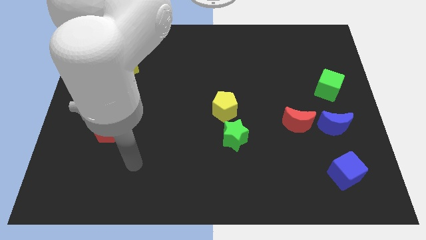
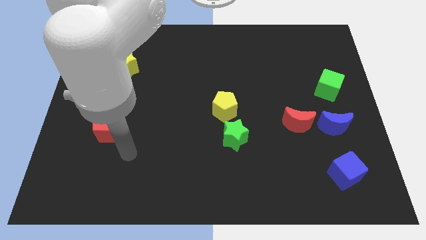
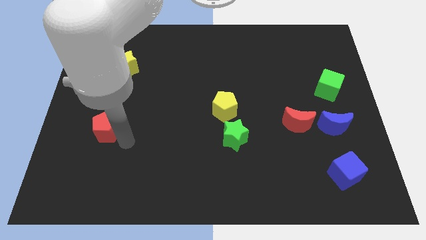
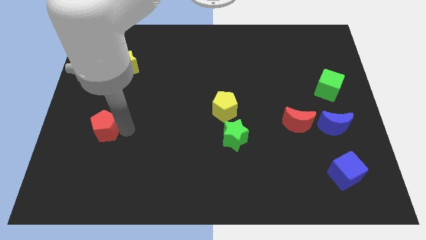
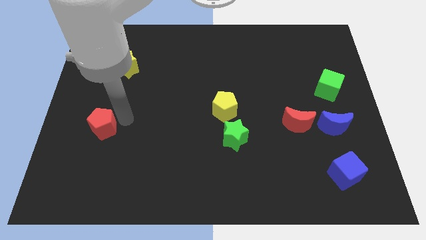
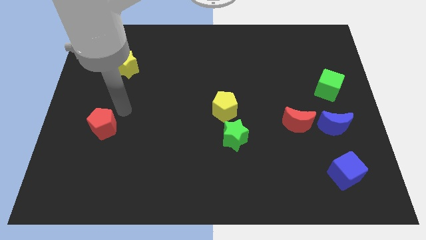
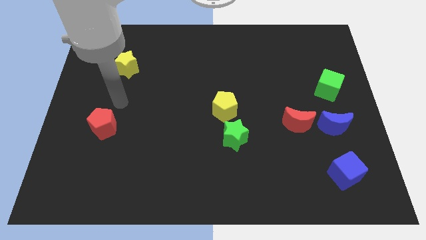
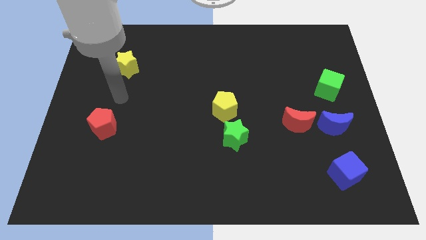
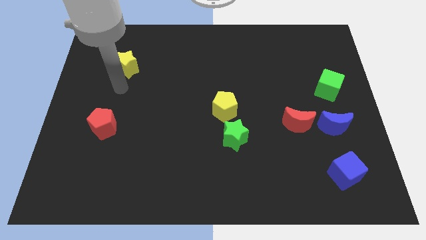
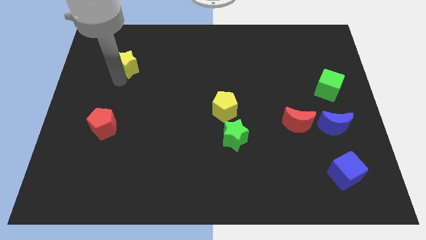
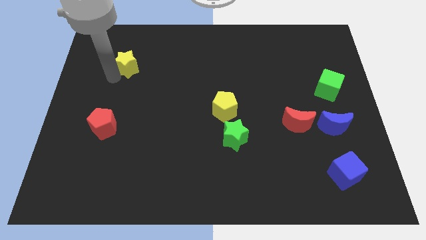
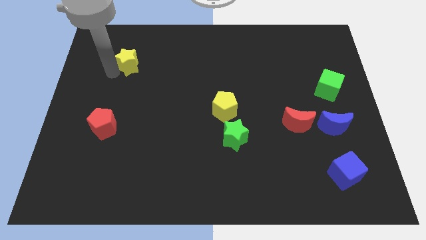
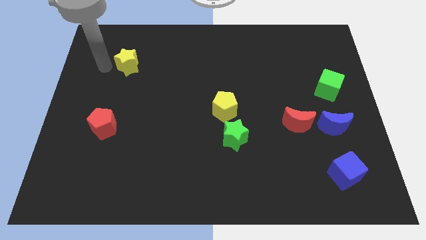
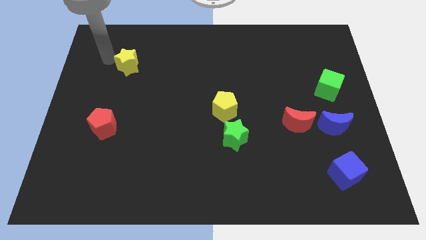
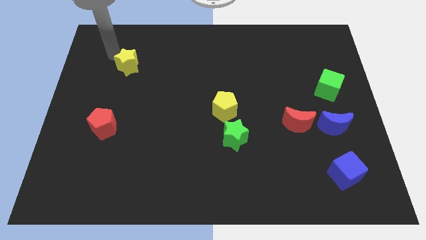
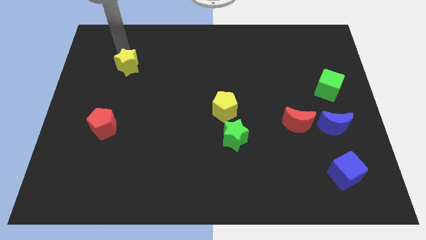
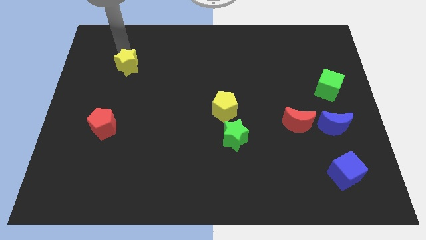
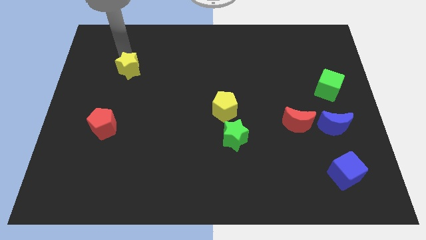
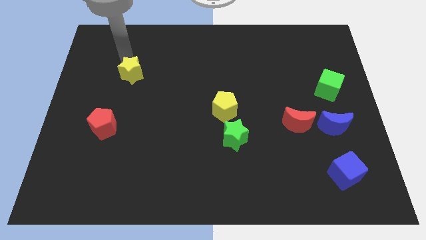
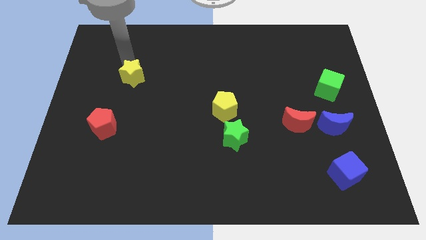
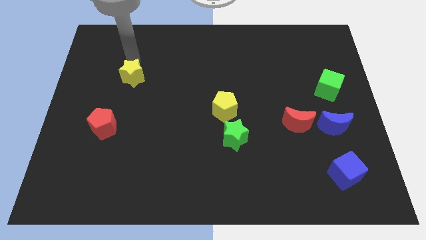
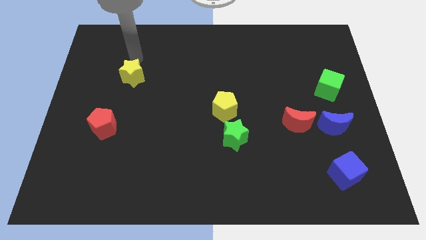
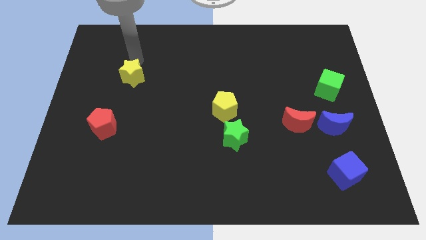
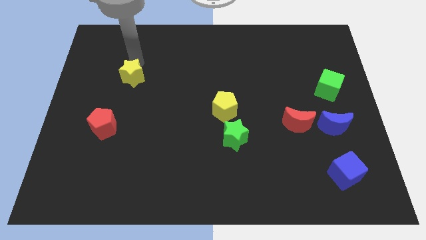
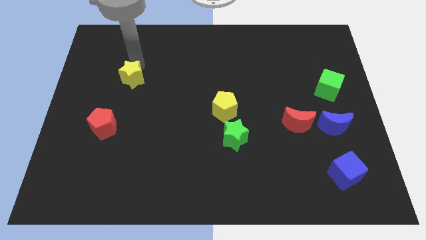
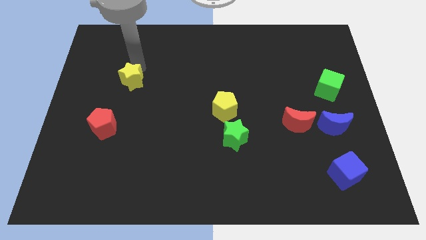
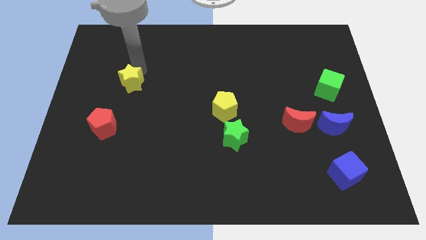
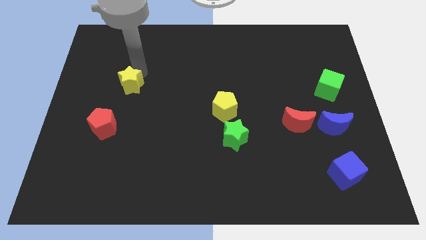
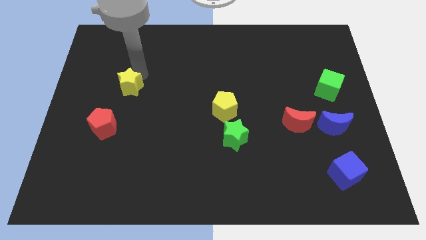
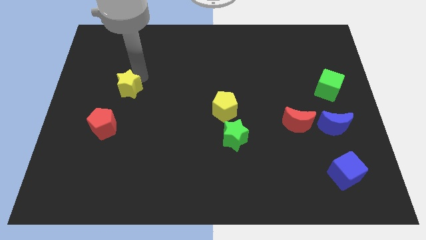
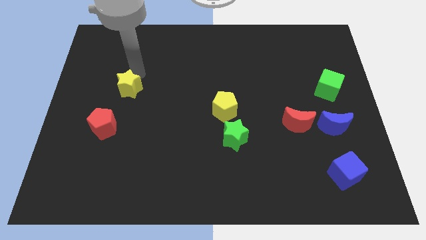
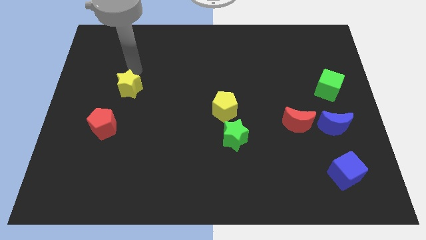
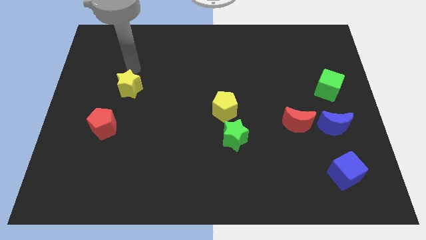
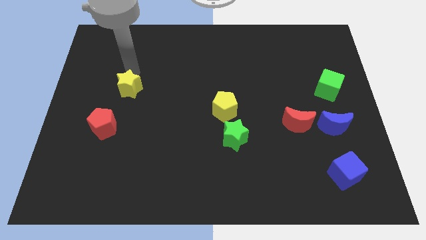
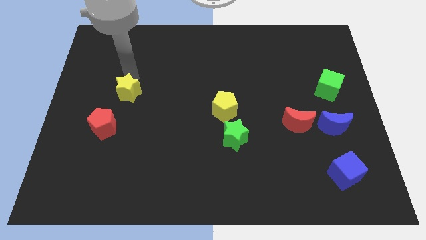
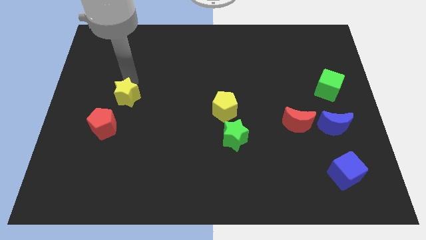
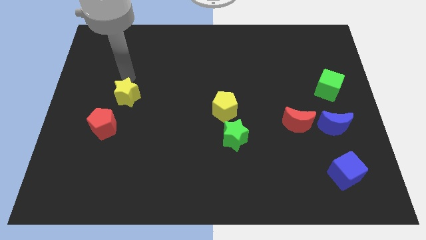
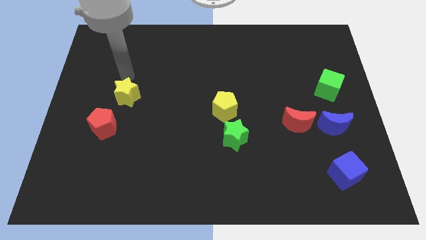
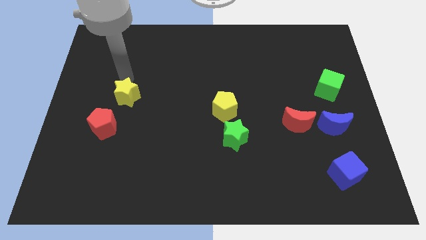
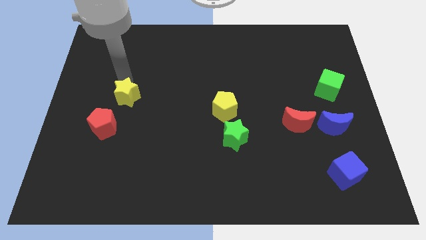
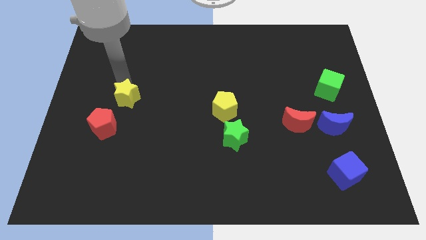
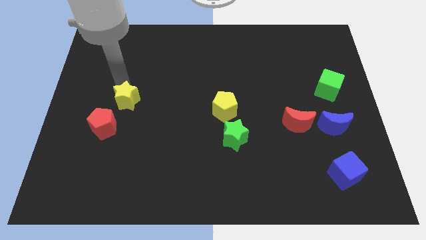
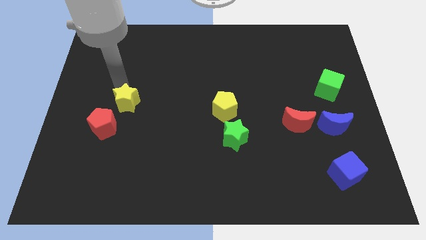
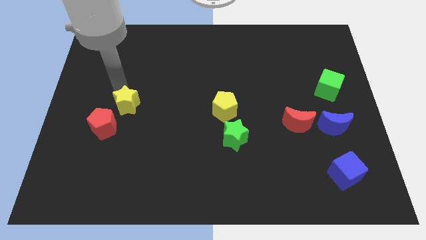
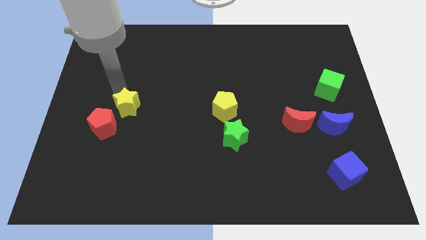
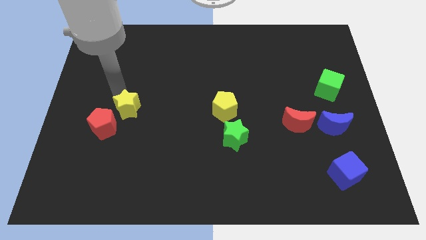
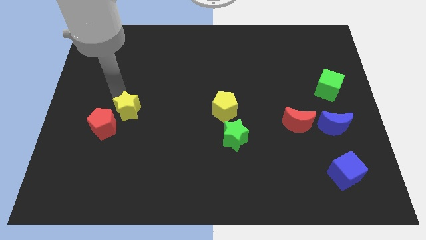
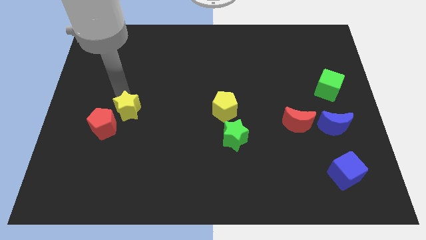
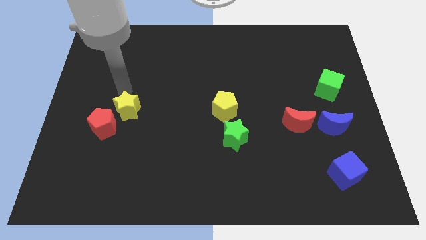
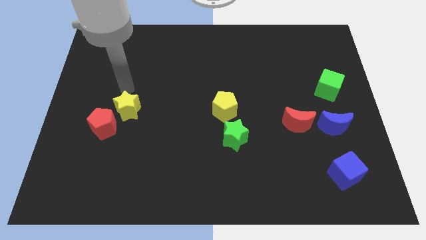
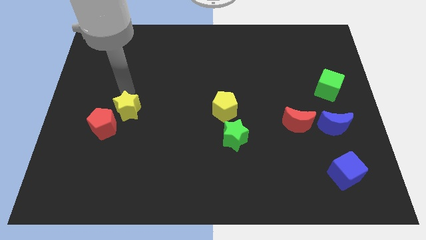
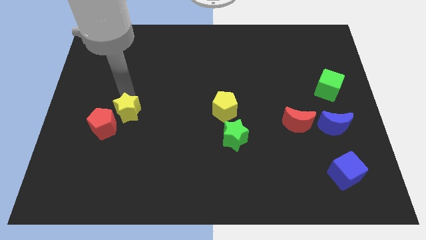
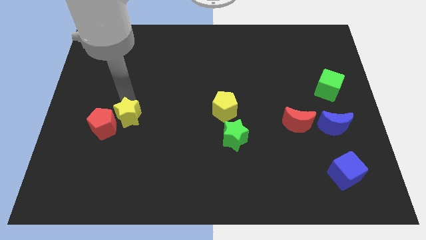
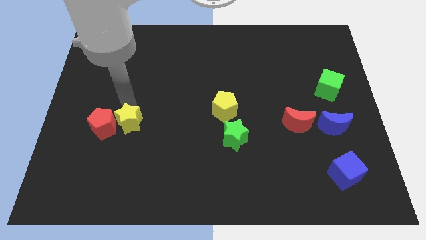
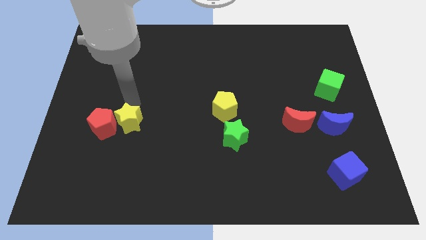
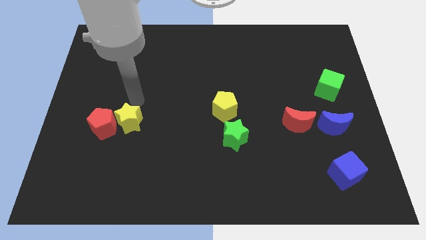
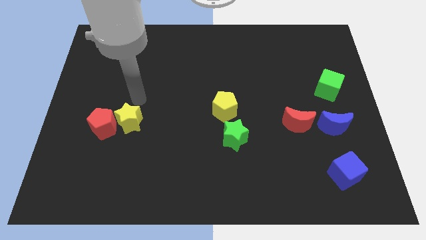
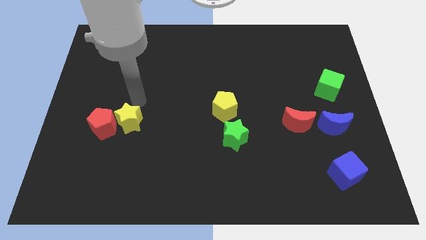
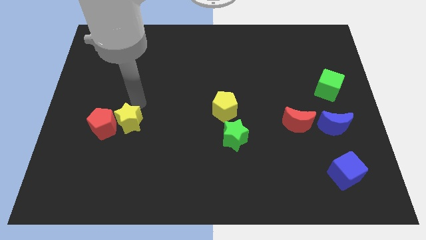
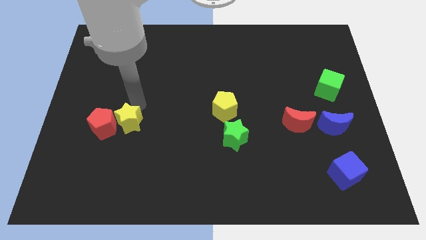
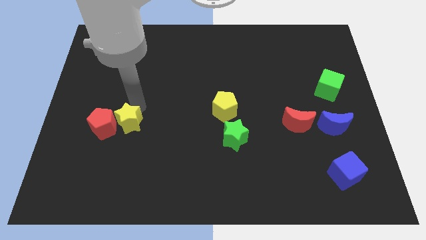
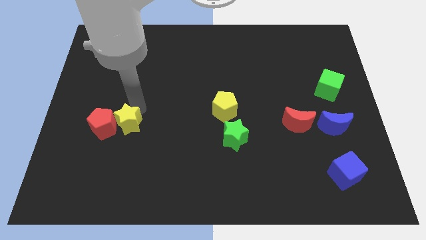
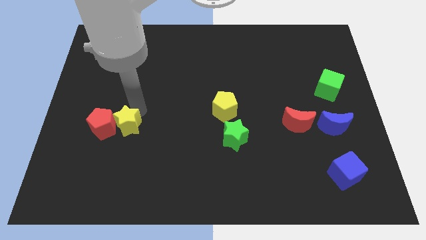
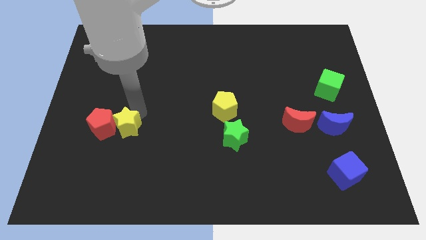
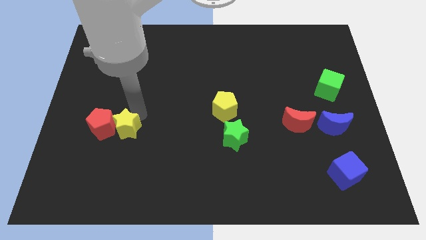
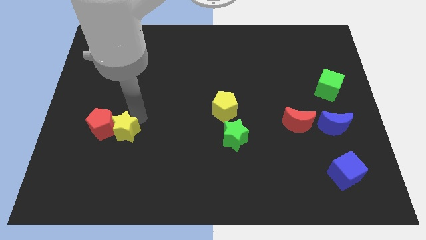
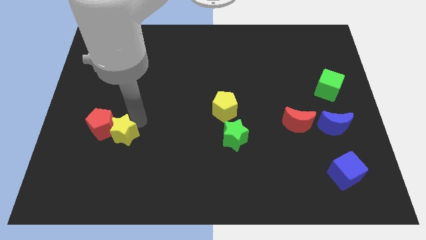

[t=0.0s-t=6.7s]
move the yellow star downwards

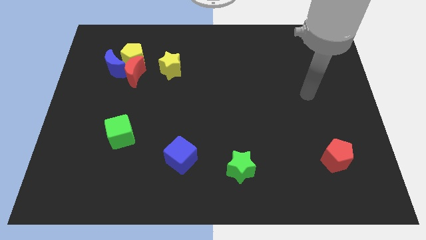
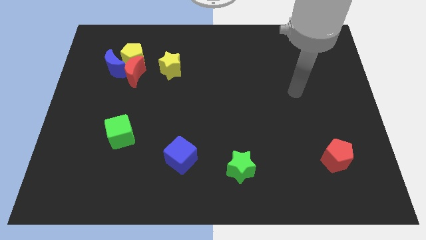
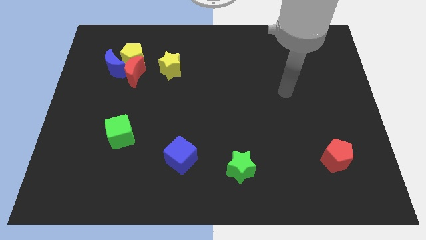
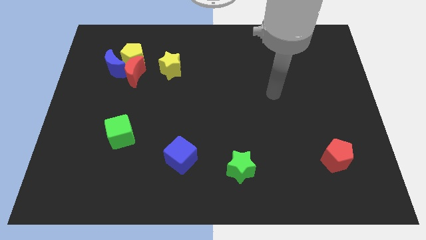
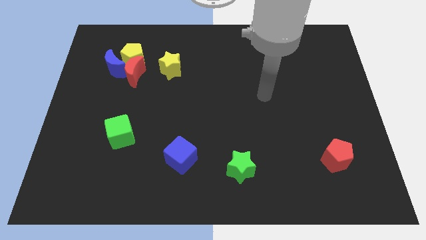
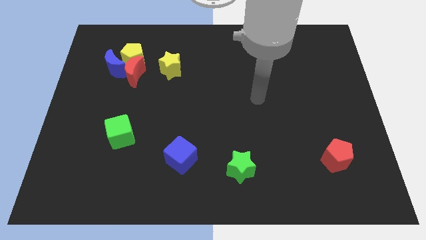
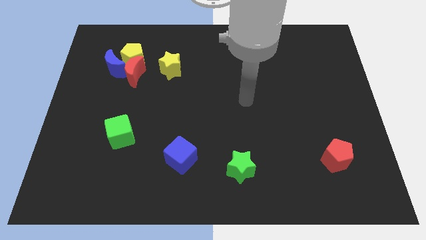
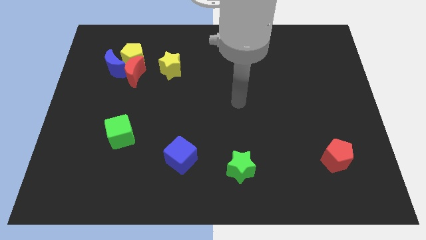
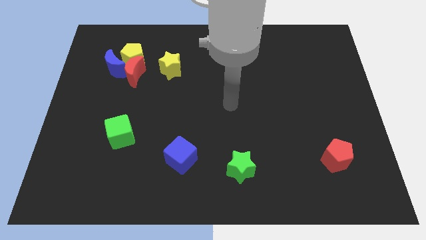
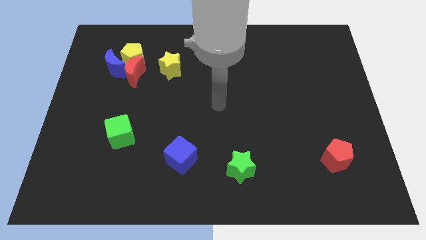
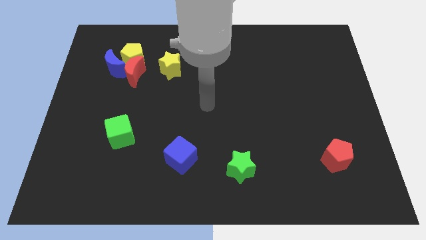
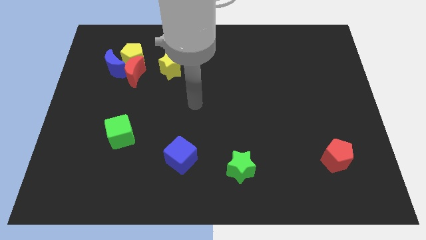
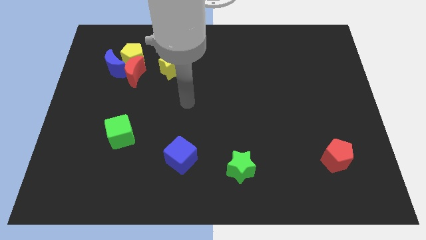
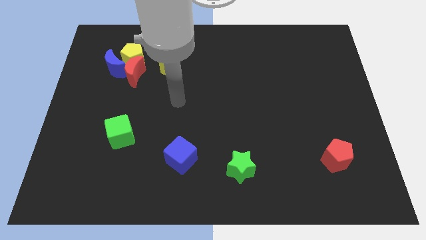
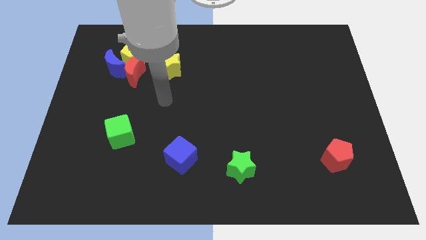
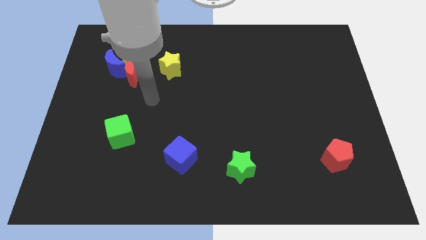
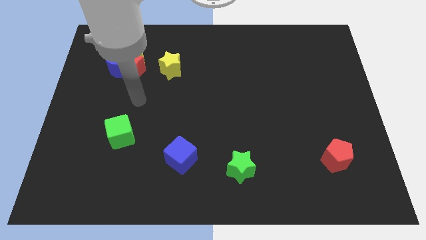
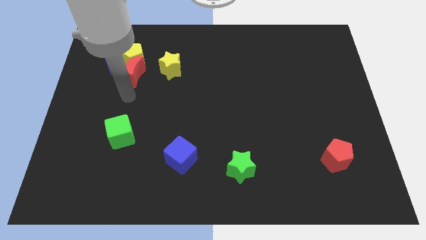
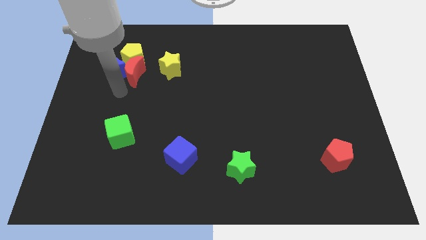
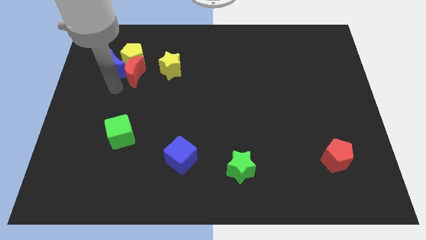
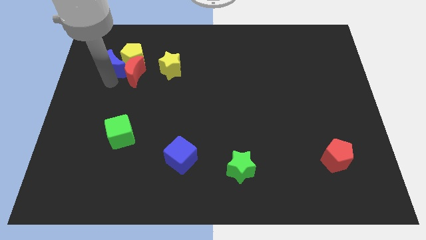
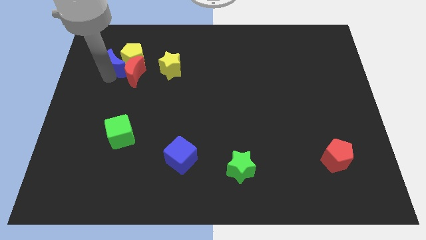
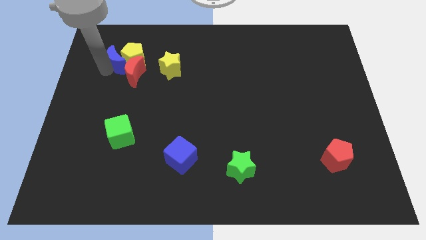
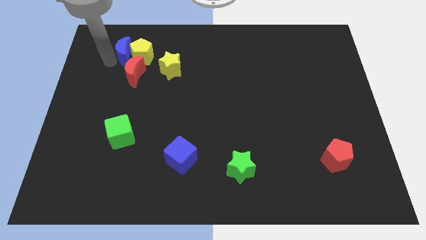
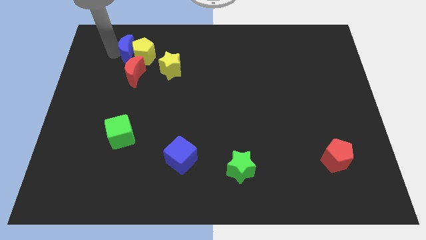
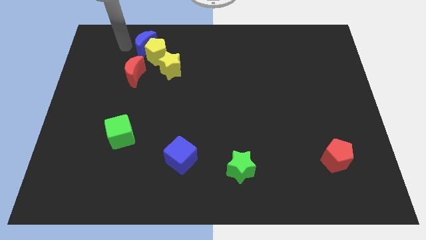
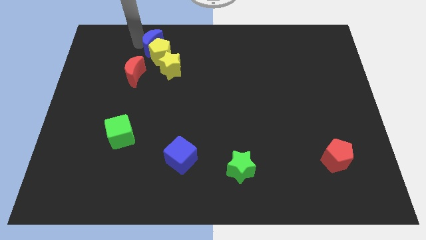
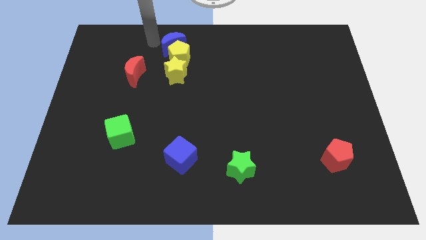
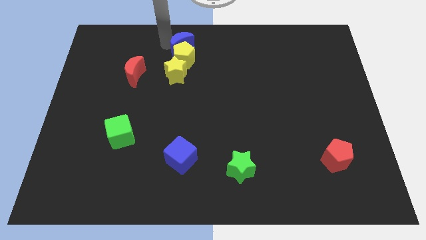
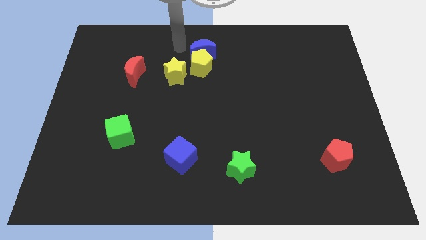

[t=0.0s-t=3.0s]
push the yellow pentagon somewhat downwards and right diagonally
